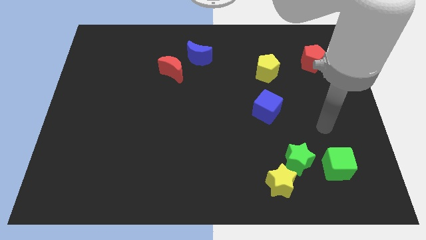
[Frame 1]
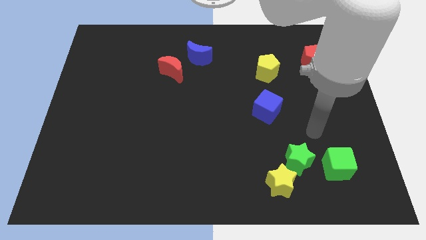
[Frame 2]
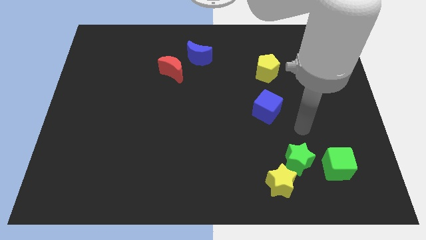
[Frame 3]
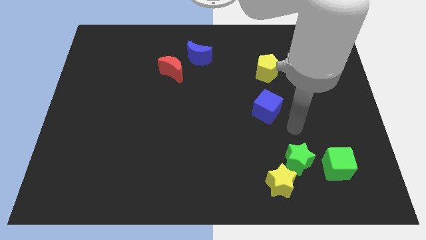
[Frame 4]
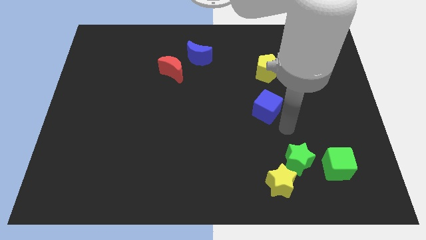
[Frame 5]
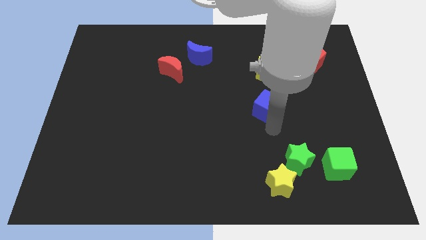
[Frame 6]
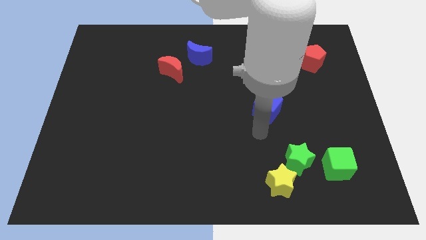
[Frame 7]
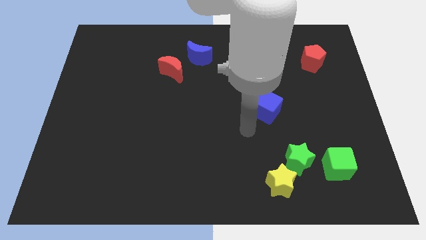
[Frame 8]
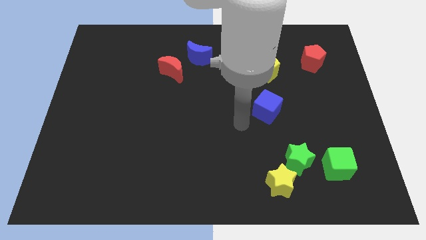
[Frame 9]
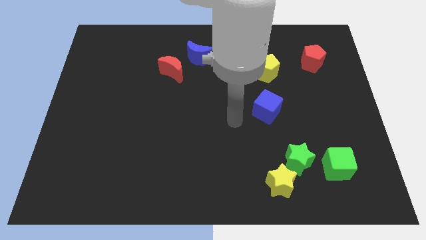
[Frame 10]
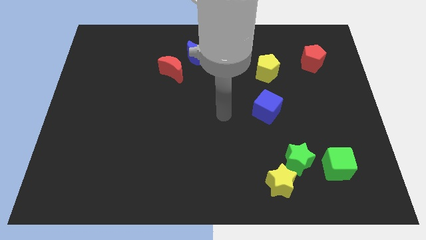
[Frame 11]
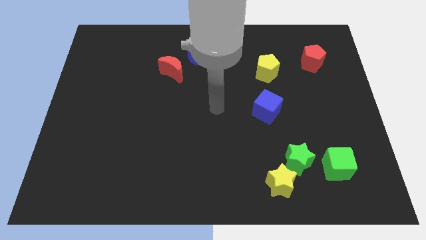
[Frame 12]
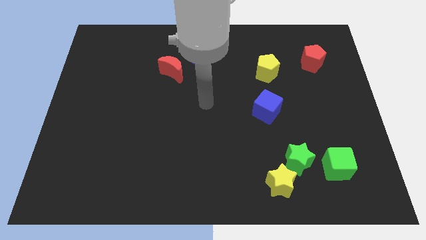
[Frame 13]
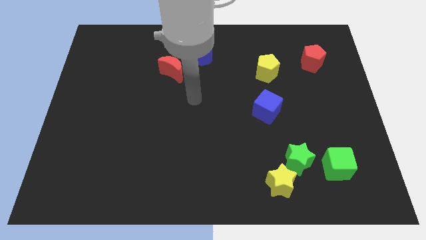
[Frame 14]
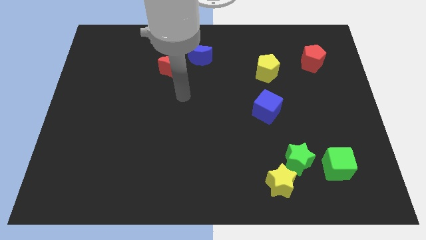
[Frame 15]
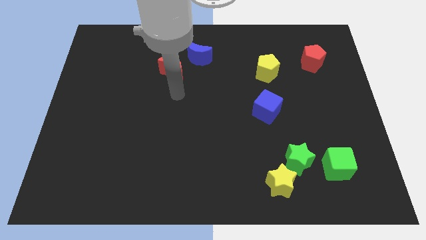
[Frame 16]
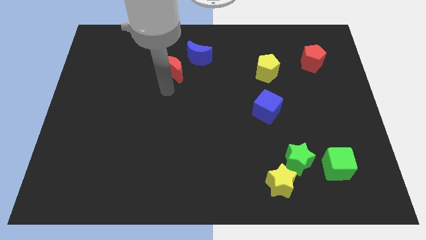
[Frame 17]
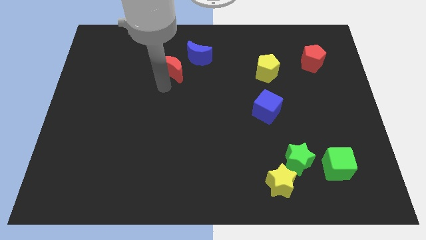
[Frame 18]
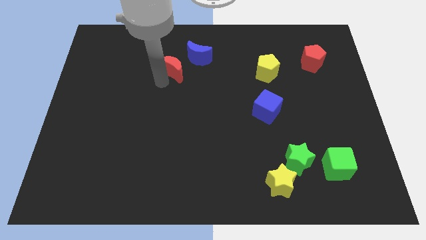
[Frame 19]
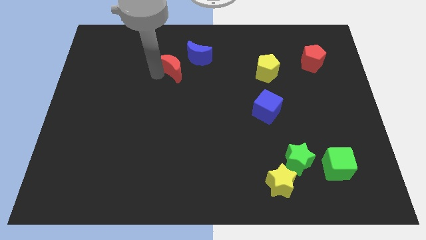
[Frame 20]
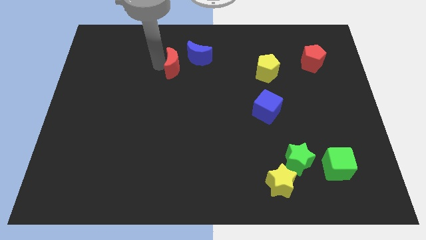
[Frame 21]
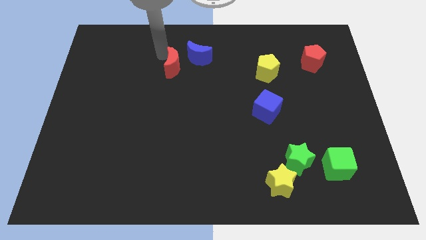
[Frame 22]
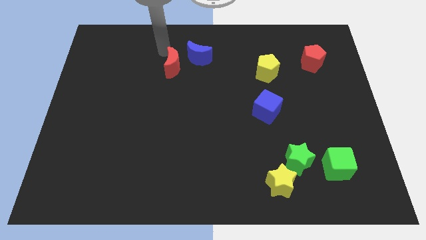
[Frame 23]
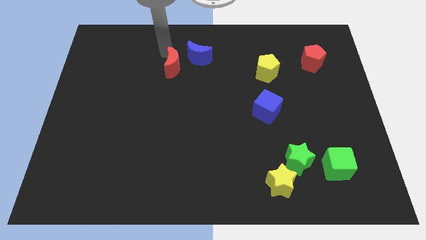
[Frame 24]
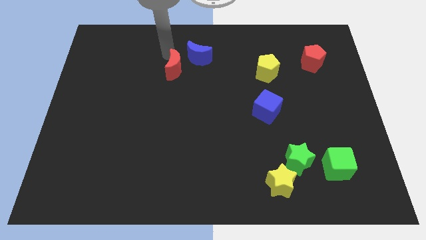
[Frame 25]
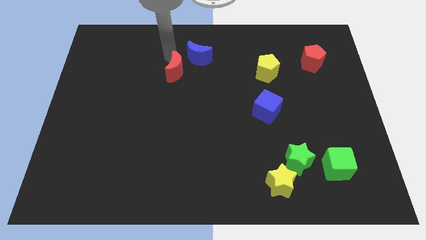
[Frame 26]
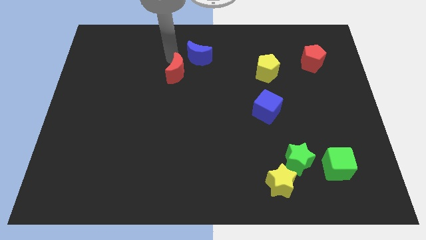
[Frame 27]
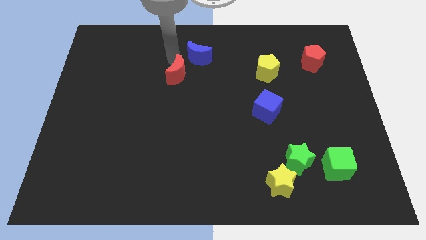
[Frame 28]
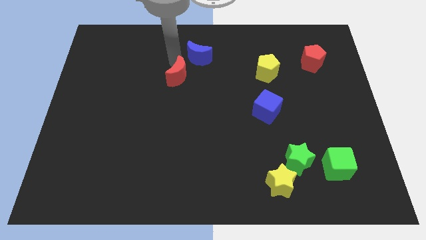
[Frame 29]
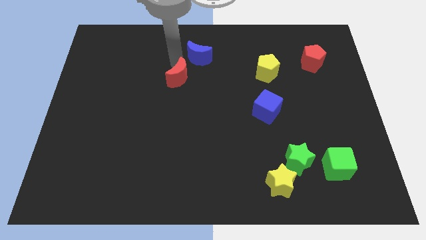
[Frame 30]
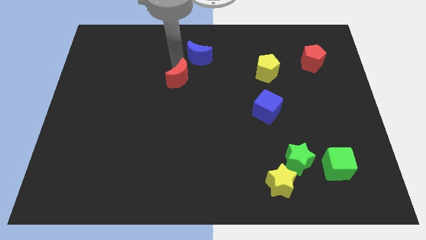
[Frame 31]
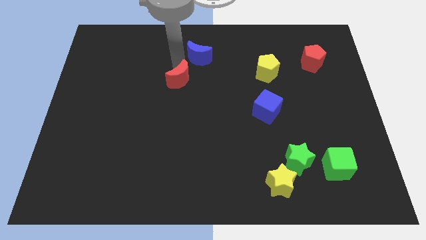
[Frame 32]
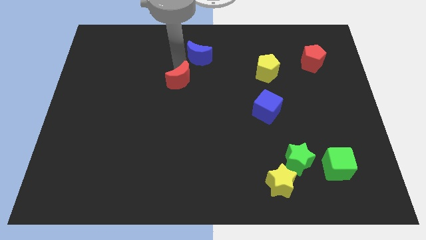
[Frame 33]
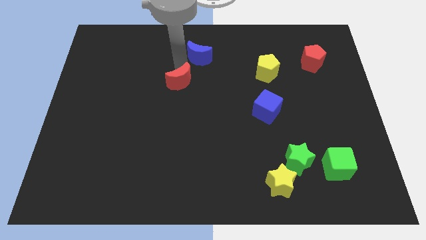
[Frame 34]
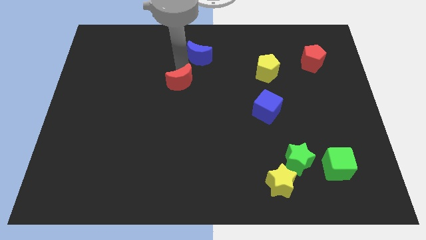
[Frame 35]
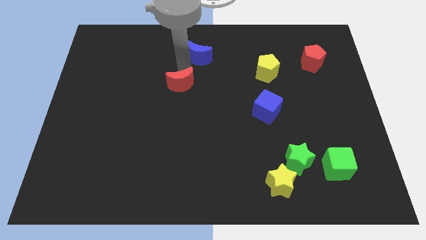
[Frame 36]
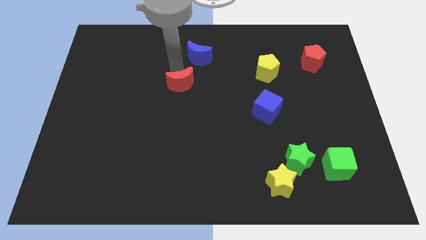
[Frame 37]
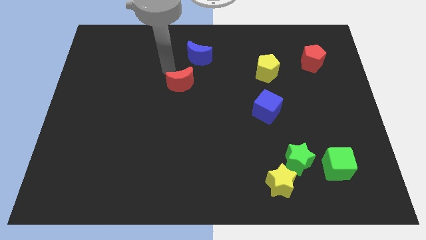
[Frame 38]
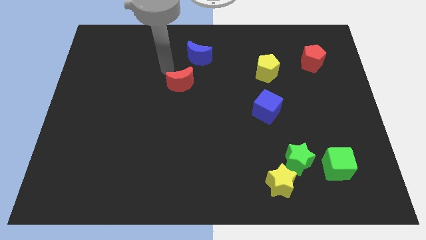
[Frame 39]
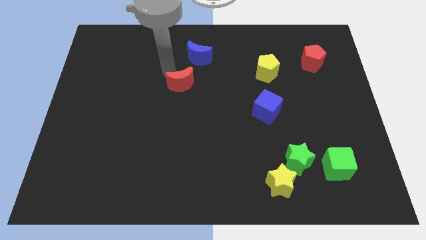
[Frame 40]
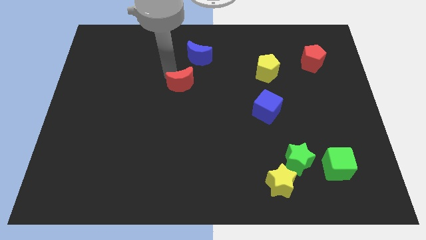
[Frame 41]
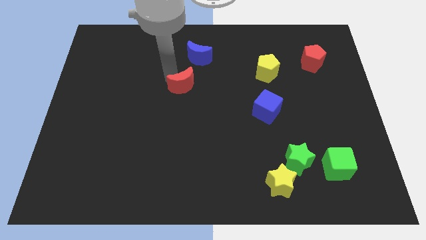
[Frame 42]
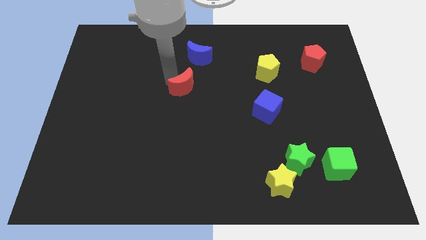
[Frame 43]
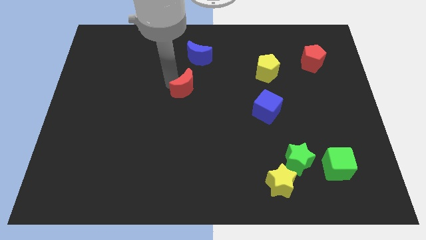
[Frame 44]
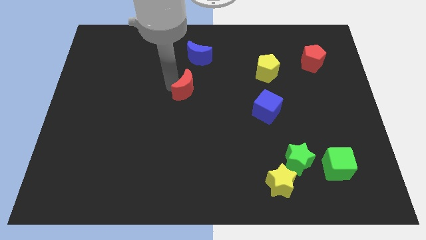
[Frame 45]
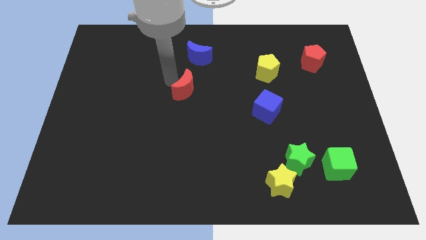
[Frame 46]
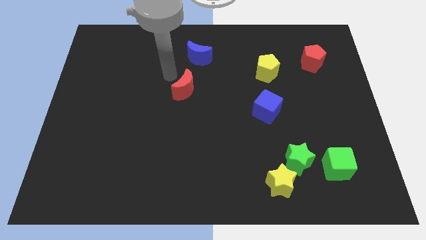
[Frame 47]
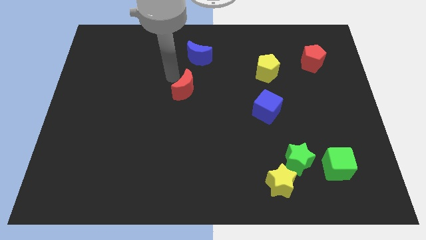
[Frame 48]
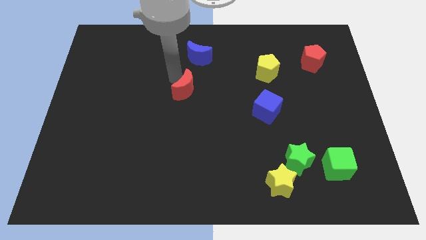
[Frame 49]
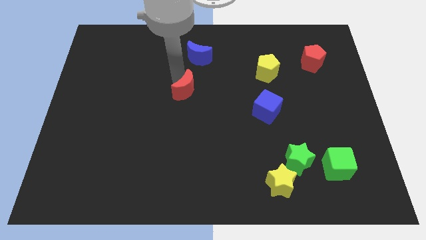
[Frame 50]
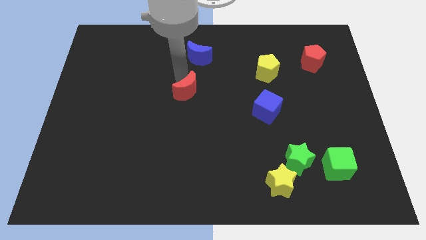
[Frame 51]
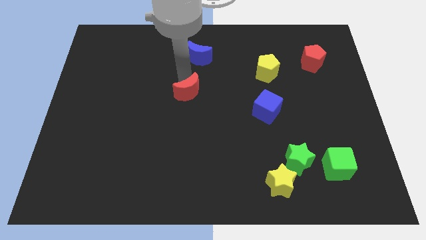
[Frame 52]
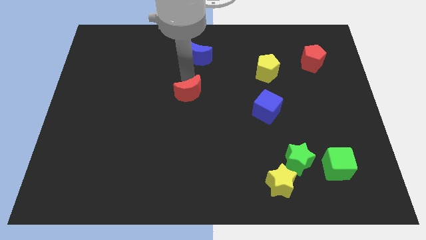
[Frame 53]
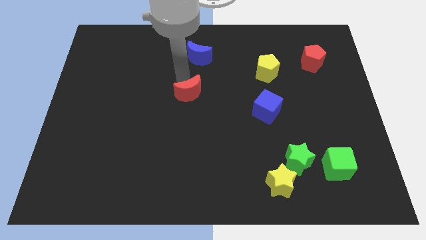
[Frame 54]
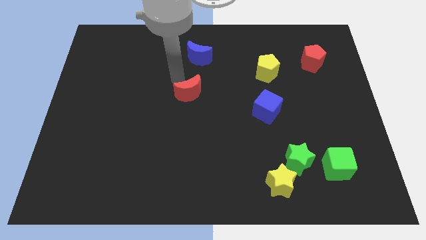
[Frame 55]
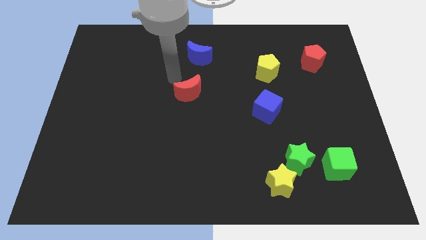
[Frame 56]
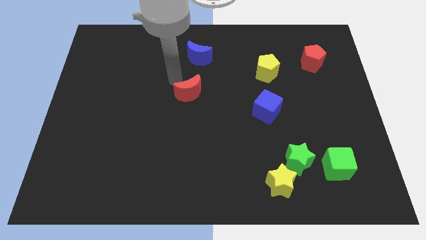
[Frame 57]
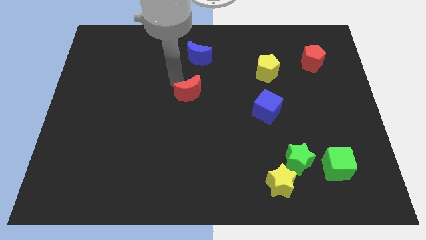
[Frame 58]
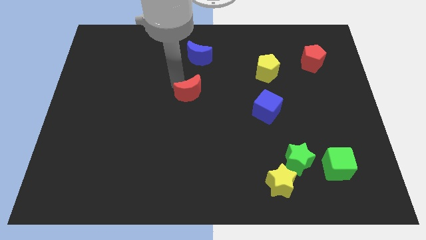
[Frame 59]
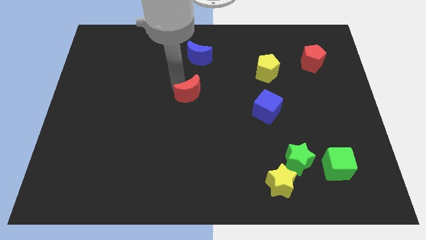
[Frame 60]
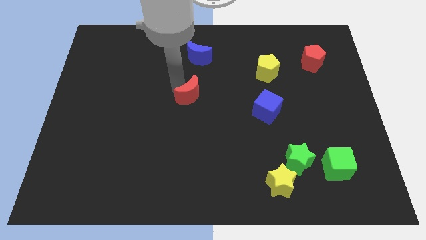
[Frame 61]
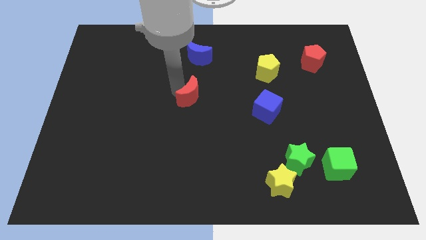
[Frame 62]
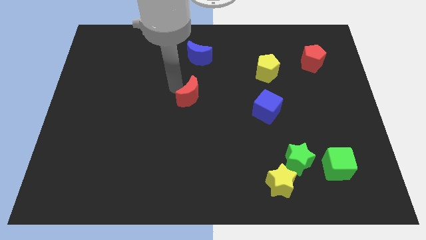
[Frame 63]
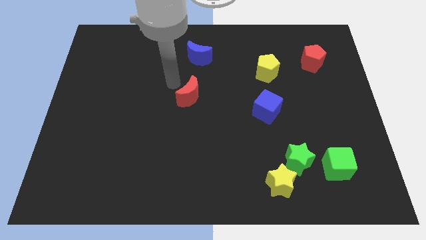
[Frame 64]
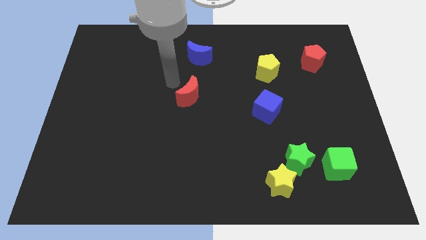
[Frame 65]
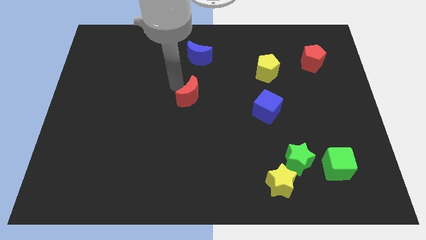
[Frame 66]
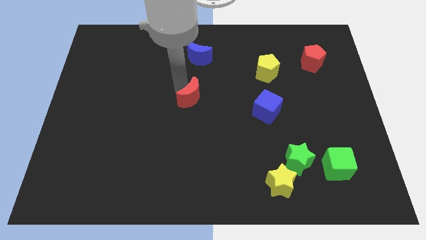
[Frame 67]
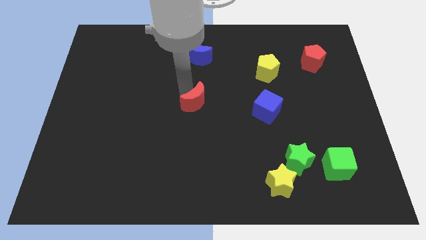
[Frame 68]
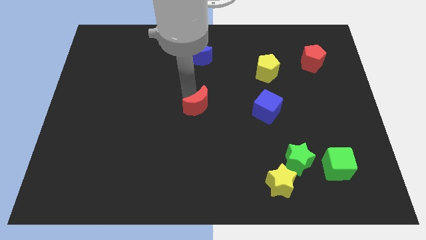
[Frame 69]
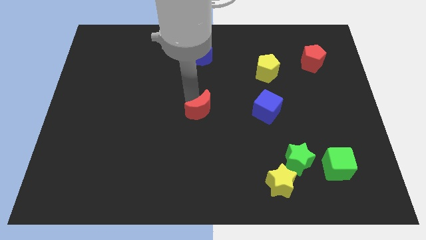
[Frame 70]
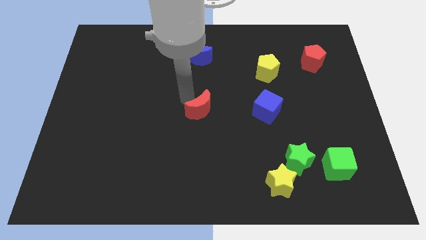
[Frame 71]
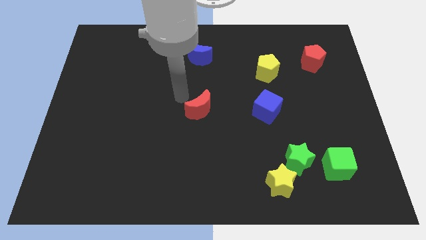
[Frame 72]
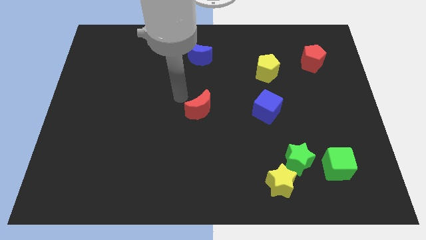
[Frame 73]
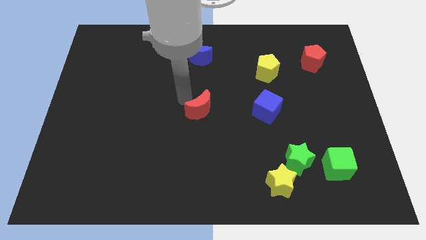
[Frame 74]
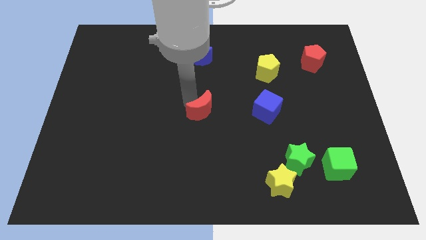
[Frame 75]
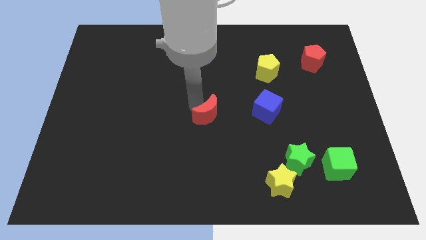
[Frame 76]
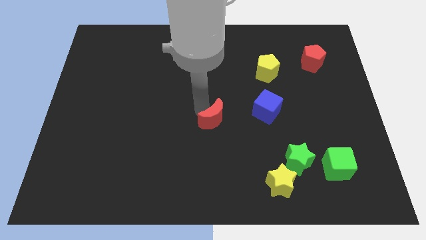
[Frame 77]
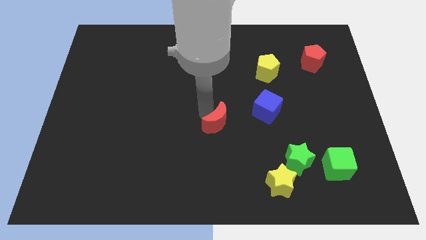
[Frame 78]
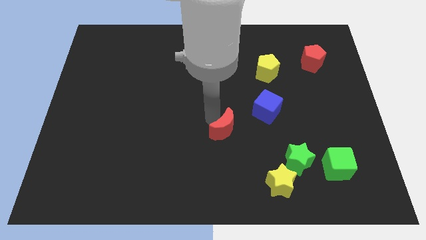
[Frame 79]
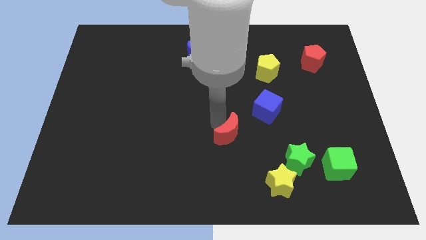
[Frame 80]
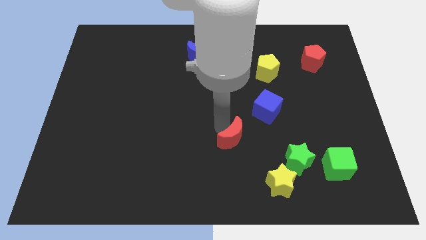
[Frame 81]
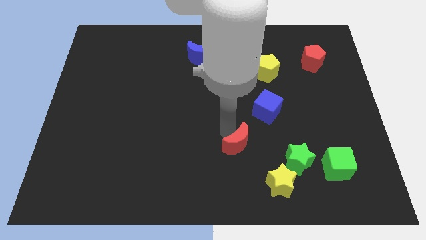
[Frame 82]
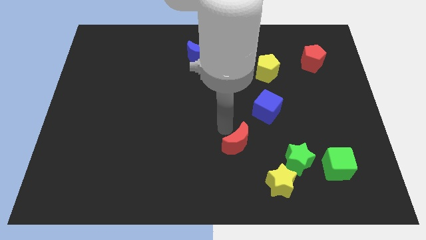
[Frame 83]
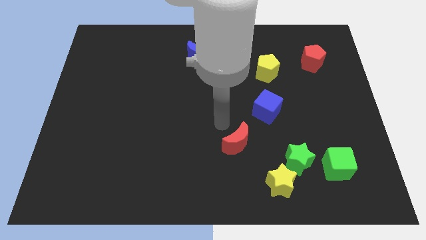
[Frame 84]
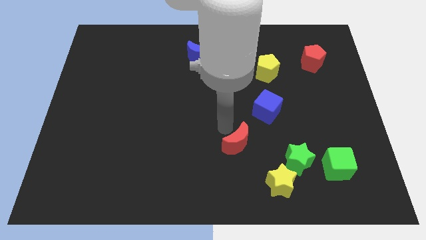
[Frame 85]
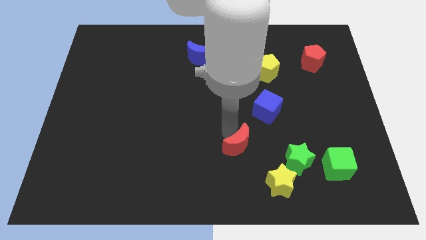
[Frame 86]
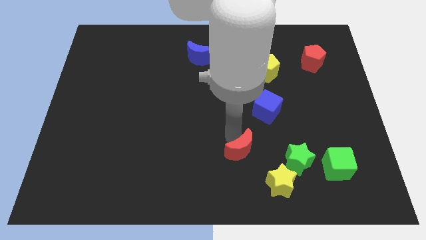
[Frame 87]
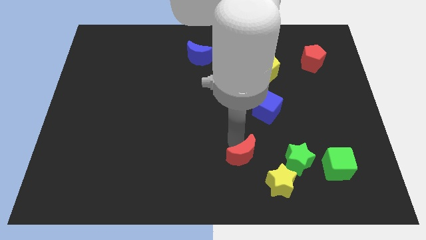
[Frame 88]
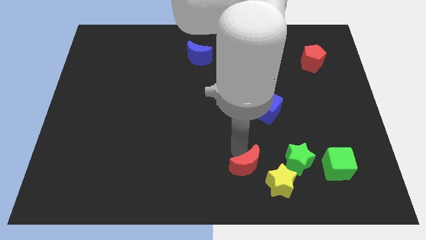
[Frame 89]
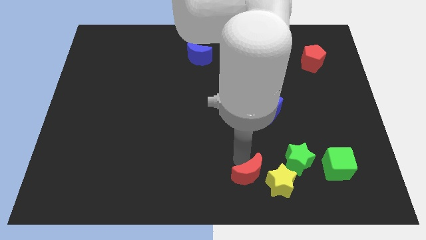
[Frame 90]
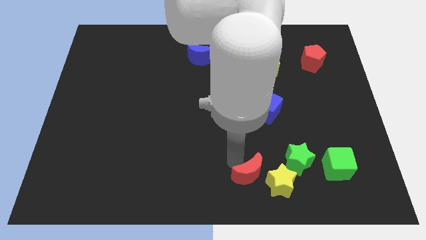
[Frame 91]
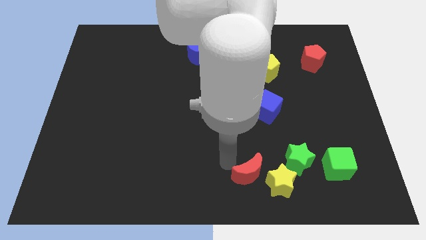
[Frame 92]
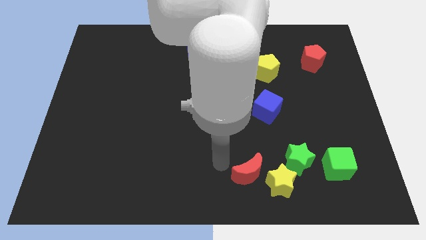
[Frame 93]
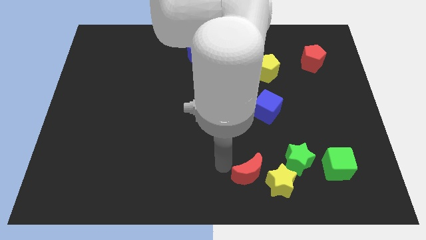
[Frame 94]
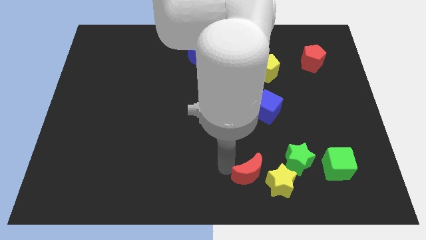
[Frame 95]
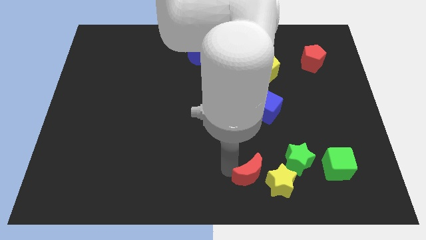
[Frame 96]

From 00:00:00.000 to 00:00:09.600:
push the red moon next to the yellow star
